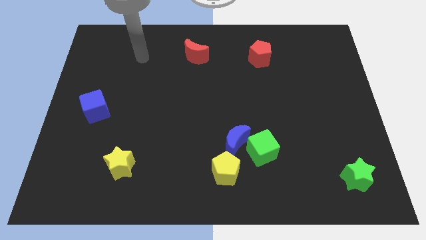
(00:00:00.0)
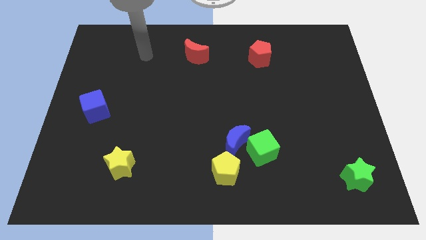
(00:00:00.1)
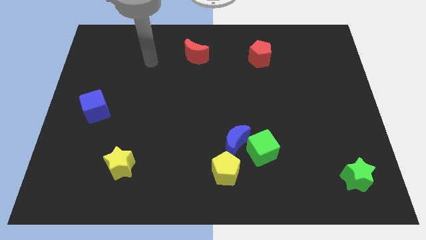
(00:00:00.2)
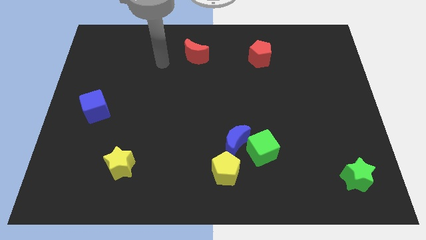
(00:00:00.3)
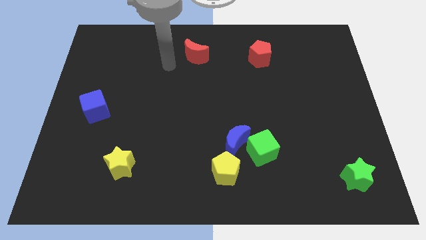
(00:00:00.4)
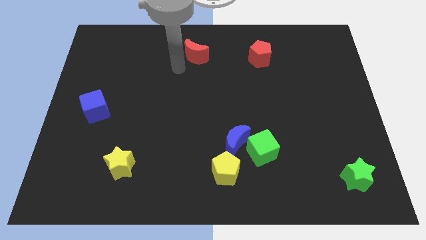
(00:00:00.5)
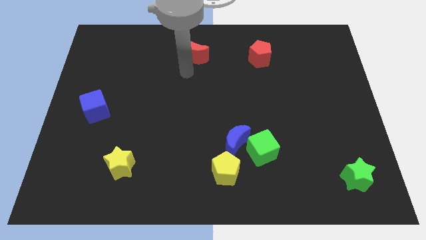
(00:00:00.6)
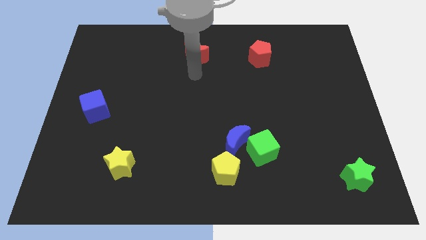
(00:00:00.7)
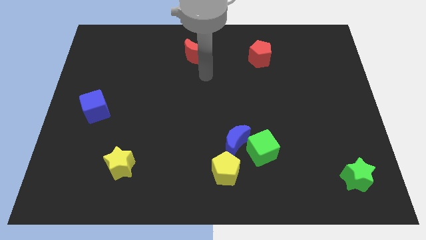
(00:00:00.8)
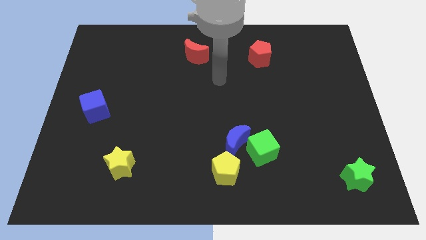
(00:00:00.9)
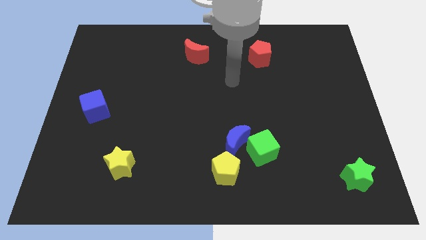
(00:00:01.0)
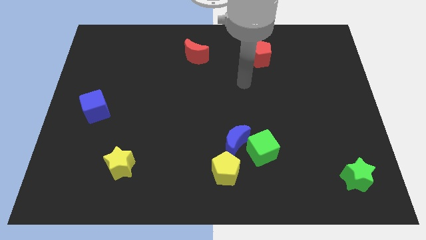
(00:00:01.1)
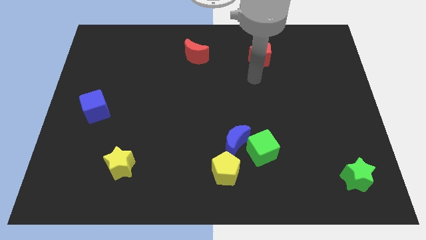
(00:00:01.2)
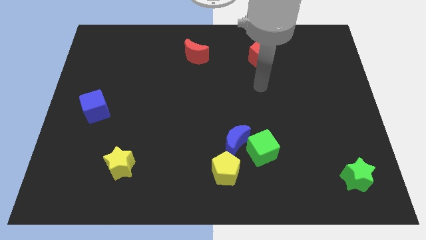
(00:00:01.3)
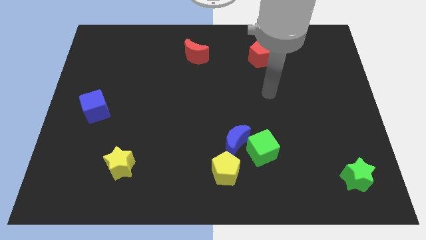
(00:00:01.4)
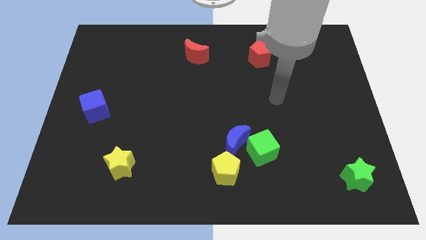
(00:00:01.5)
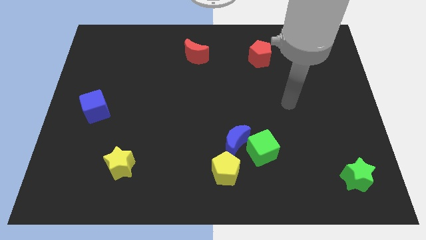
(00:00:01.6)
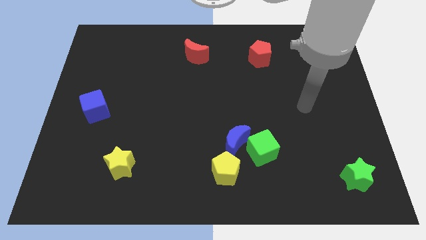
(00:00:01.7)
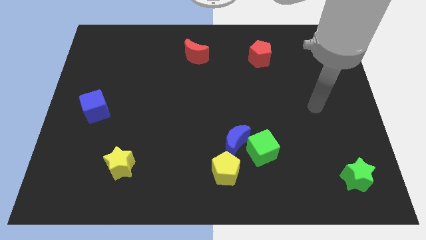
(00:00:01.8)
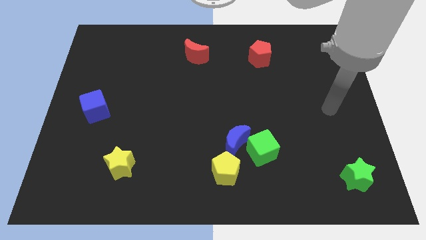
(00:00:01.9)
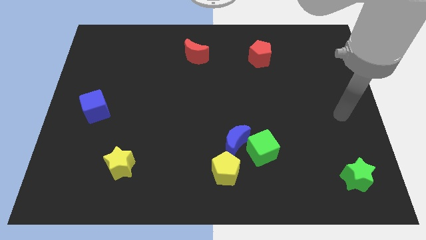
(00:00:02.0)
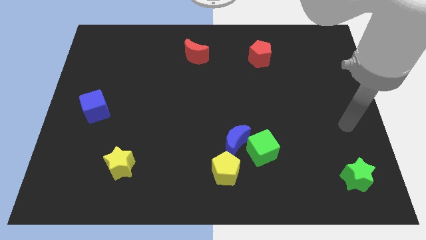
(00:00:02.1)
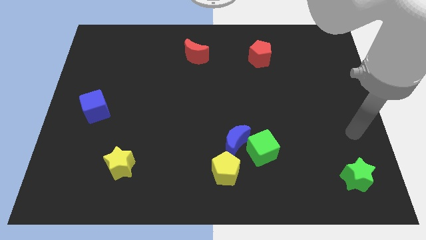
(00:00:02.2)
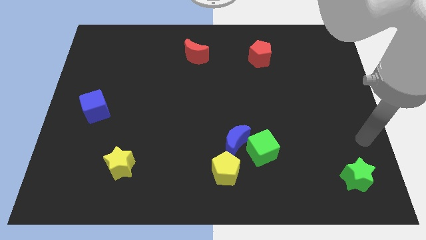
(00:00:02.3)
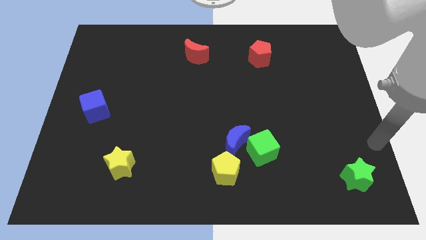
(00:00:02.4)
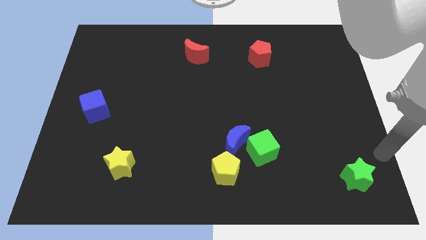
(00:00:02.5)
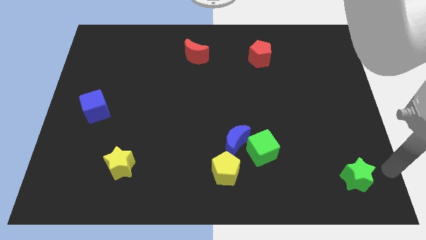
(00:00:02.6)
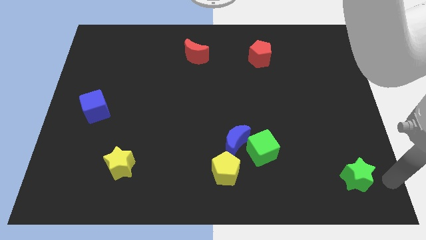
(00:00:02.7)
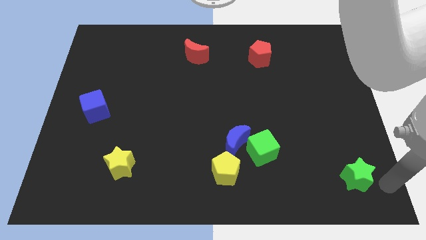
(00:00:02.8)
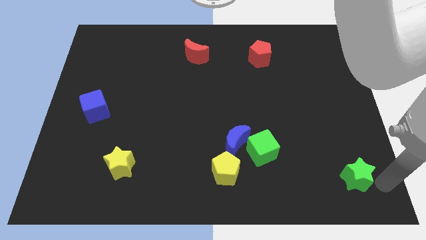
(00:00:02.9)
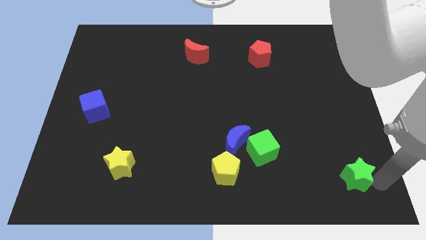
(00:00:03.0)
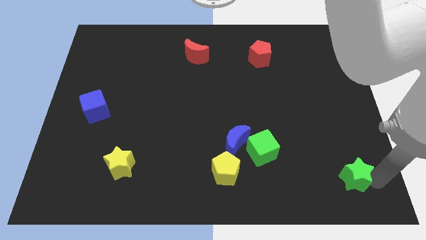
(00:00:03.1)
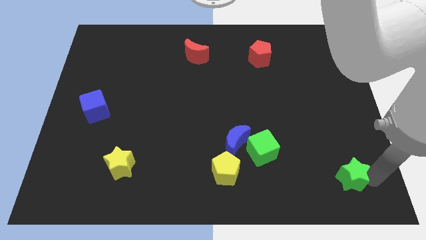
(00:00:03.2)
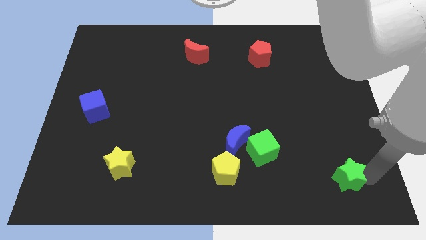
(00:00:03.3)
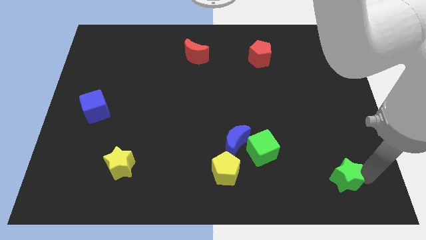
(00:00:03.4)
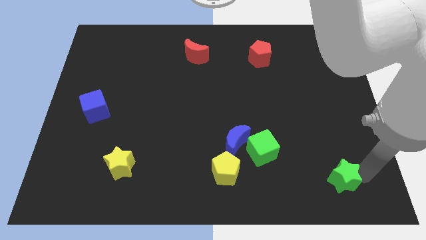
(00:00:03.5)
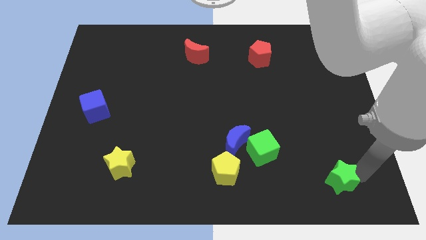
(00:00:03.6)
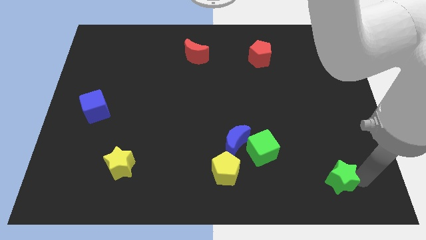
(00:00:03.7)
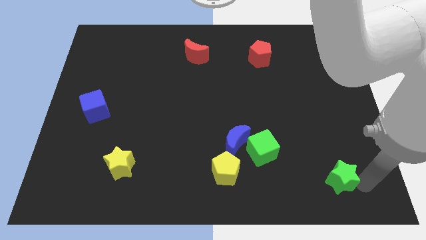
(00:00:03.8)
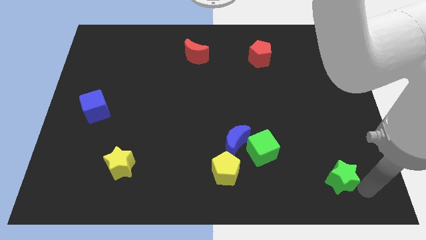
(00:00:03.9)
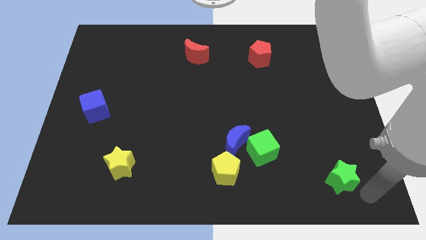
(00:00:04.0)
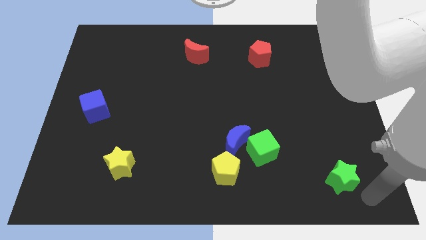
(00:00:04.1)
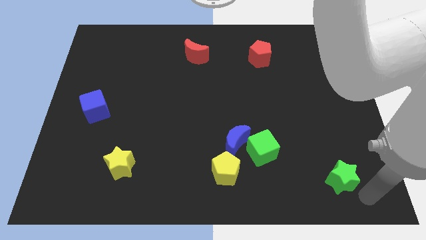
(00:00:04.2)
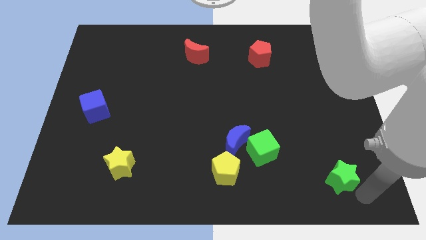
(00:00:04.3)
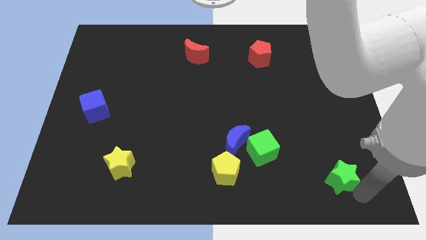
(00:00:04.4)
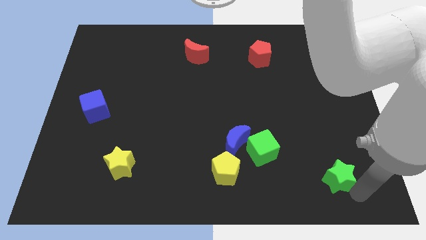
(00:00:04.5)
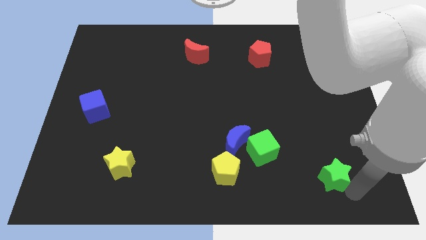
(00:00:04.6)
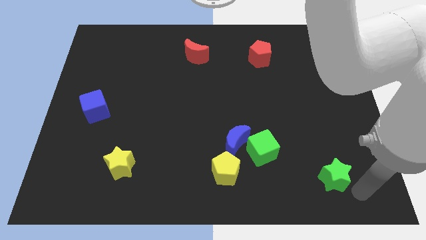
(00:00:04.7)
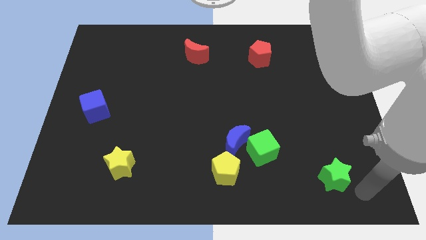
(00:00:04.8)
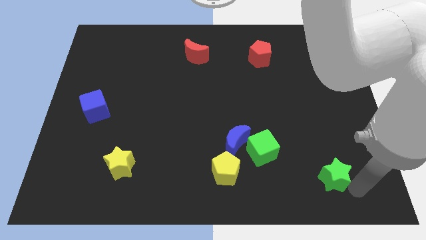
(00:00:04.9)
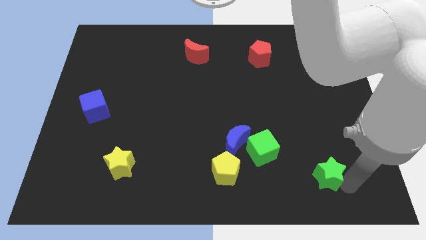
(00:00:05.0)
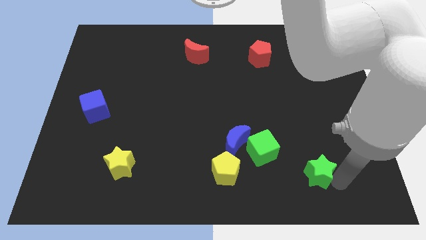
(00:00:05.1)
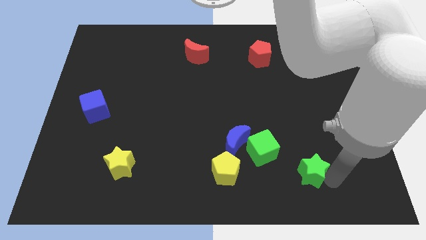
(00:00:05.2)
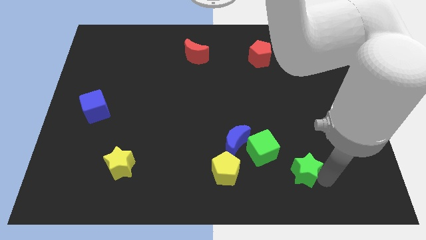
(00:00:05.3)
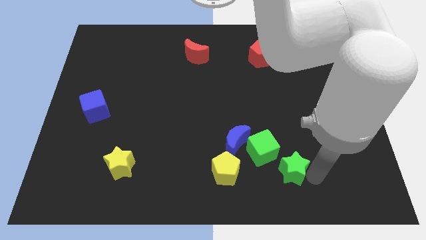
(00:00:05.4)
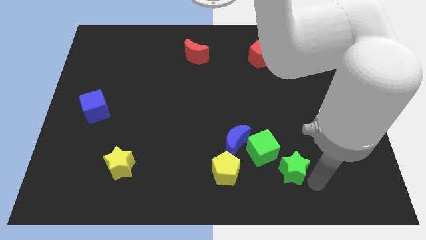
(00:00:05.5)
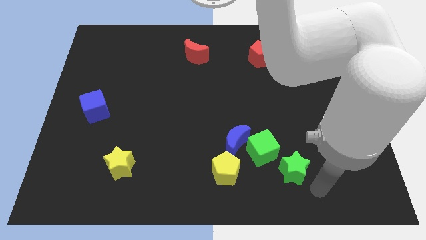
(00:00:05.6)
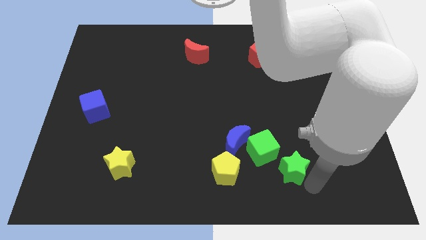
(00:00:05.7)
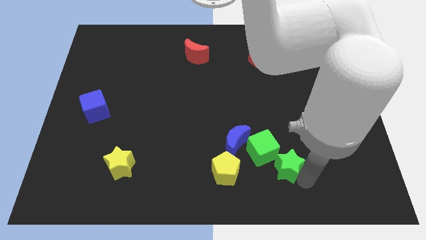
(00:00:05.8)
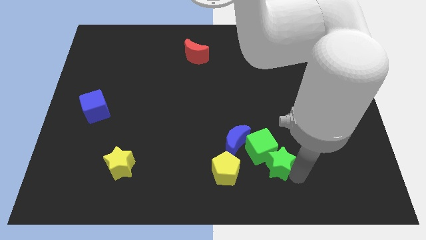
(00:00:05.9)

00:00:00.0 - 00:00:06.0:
put the green star next to the green cube

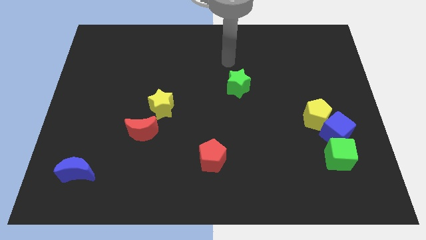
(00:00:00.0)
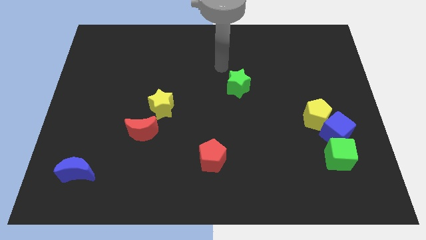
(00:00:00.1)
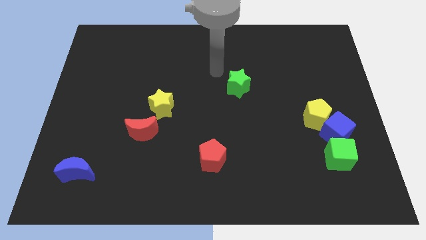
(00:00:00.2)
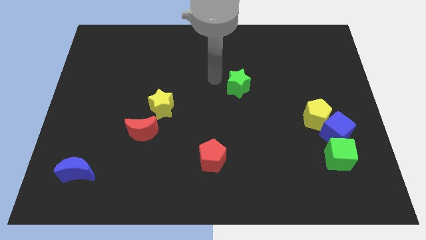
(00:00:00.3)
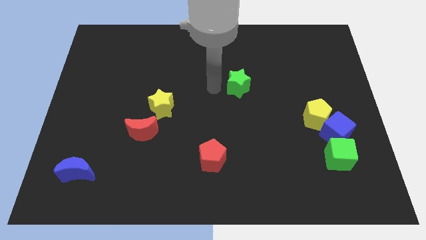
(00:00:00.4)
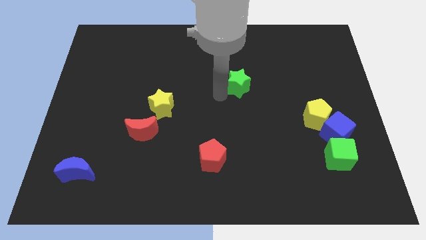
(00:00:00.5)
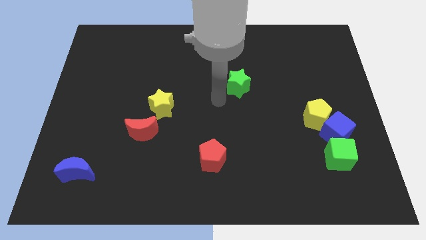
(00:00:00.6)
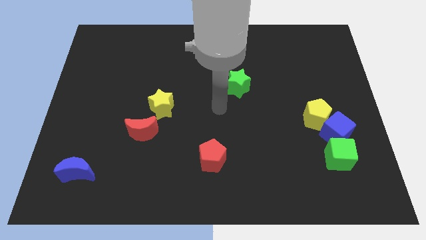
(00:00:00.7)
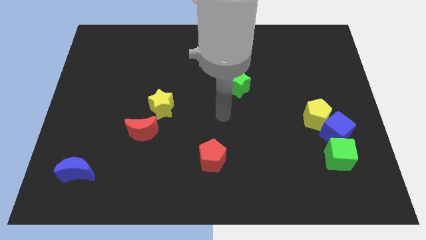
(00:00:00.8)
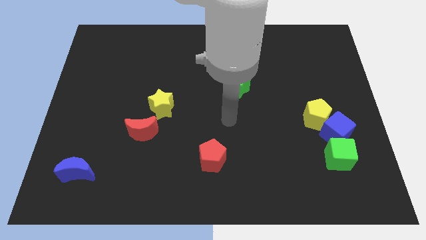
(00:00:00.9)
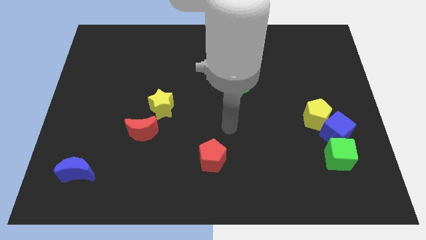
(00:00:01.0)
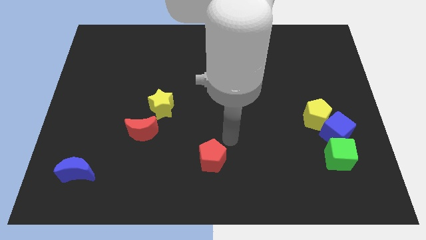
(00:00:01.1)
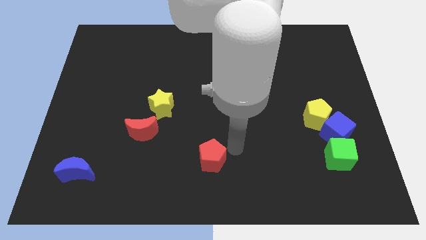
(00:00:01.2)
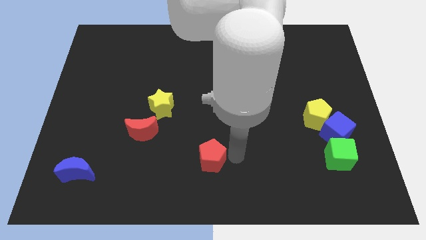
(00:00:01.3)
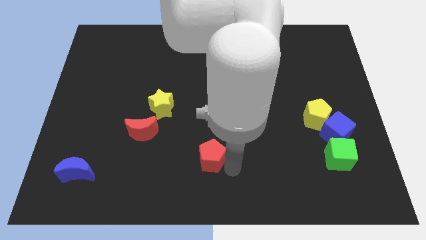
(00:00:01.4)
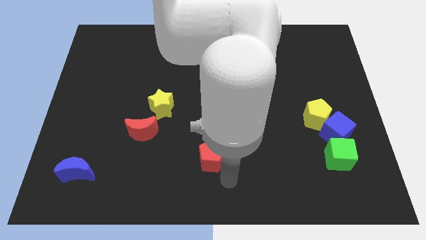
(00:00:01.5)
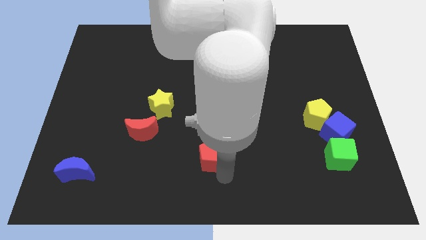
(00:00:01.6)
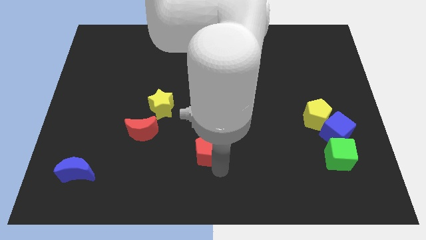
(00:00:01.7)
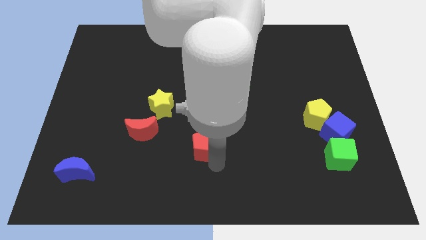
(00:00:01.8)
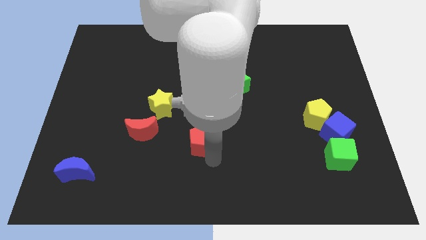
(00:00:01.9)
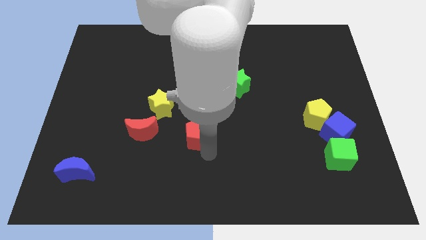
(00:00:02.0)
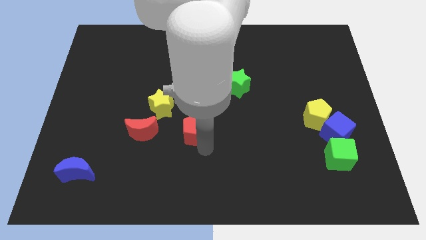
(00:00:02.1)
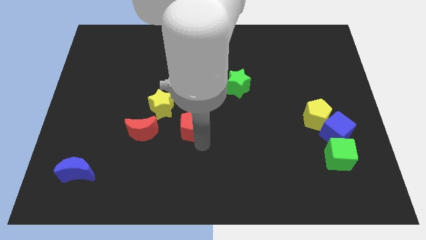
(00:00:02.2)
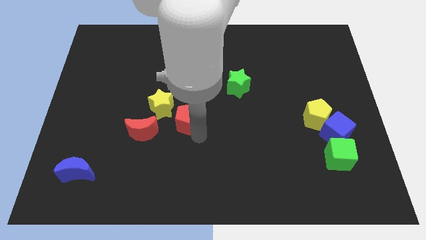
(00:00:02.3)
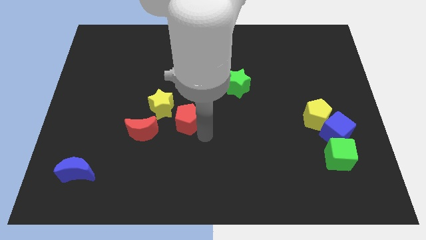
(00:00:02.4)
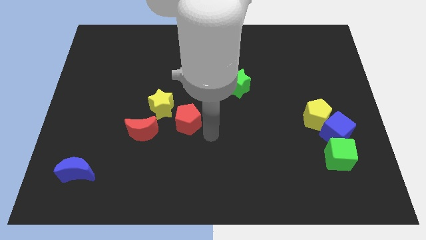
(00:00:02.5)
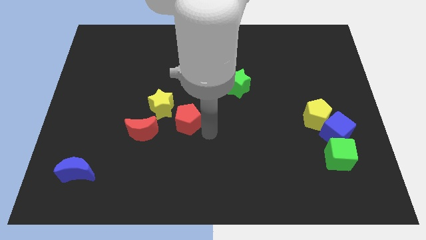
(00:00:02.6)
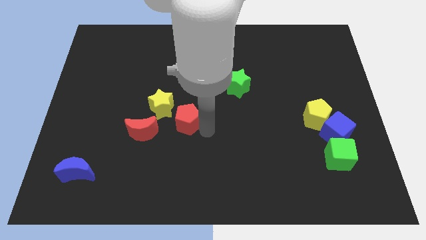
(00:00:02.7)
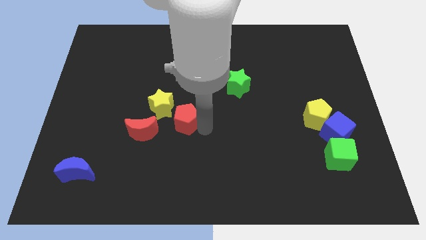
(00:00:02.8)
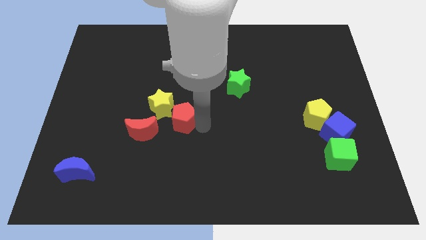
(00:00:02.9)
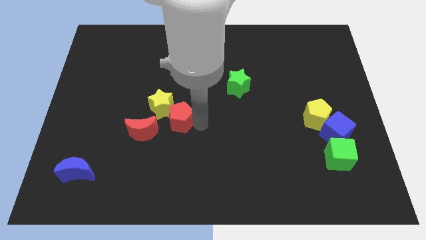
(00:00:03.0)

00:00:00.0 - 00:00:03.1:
move the red pentagon next to the yellow star
